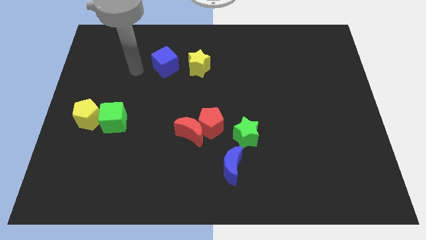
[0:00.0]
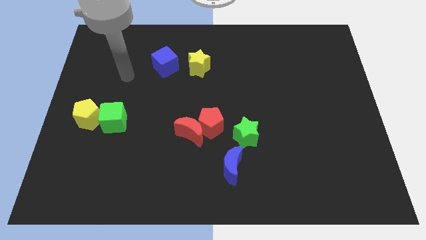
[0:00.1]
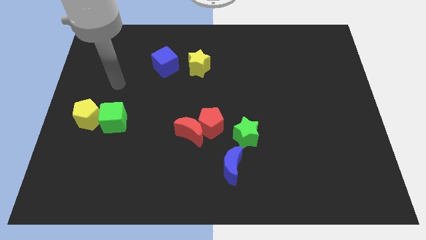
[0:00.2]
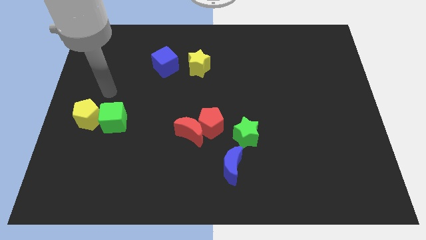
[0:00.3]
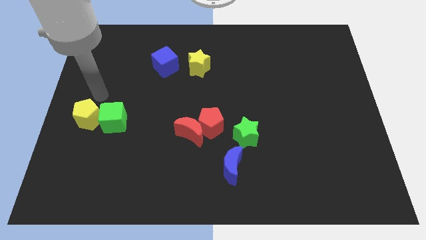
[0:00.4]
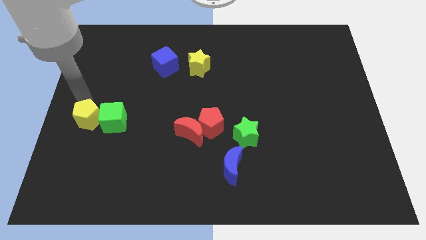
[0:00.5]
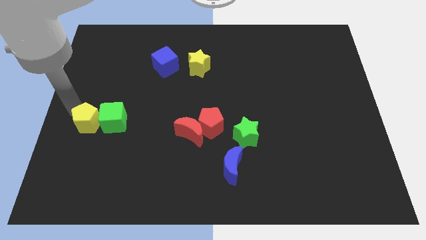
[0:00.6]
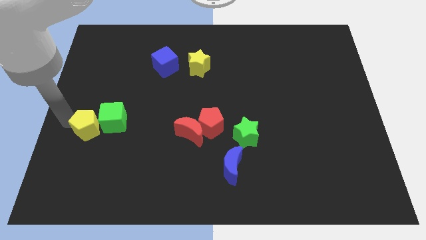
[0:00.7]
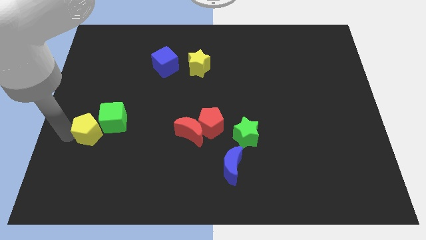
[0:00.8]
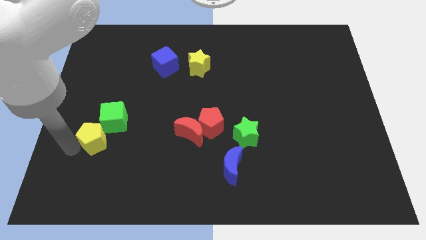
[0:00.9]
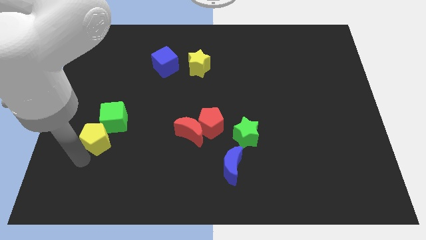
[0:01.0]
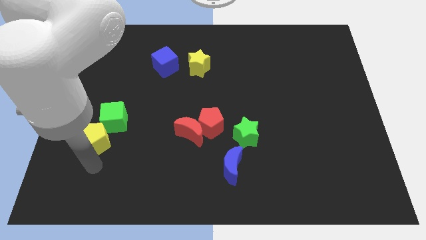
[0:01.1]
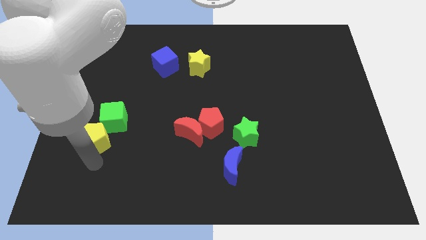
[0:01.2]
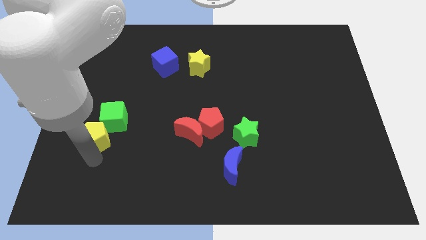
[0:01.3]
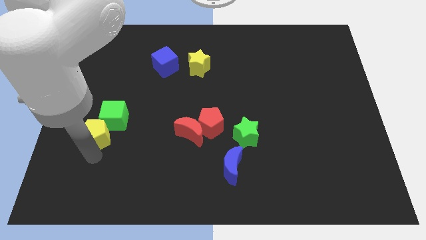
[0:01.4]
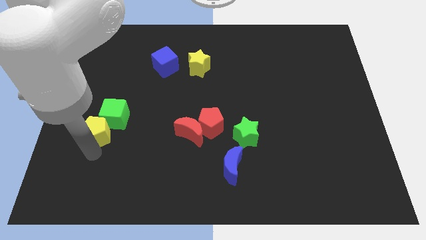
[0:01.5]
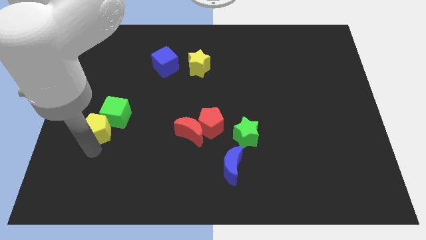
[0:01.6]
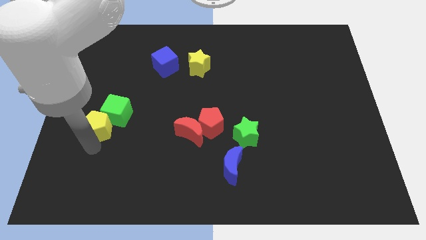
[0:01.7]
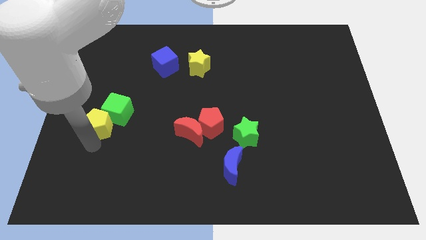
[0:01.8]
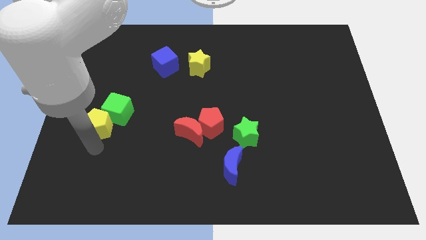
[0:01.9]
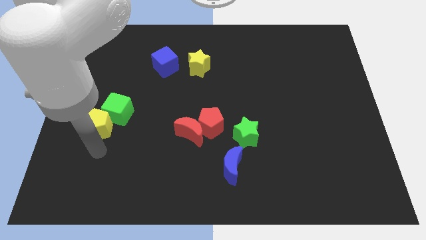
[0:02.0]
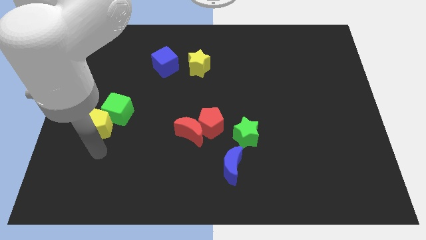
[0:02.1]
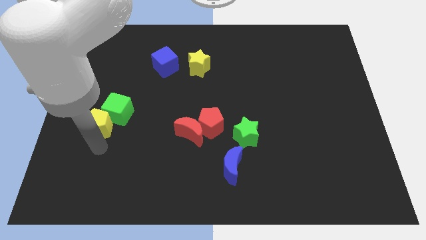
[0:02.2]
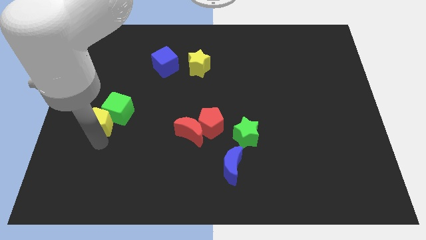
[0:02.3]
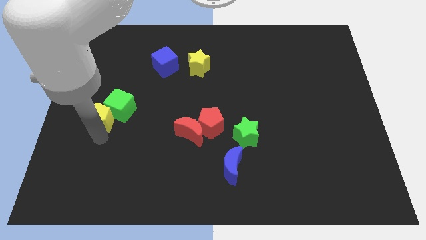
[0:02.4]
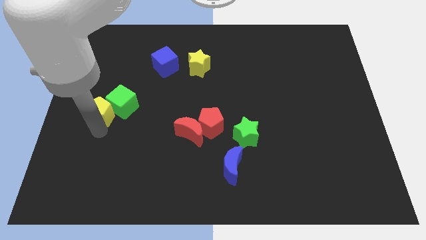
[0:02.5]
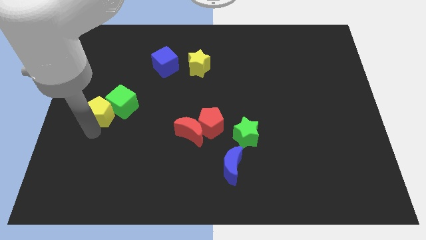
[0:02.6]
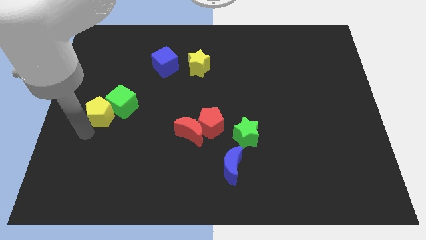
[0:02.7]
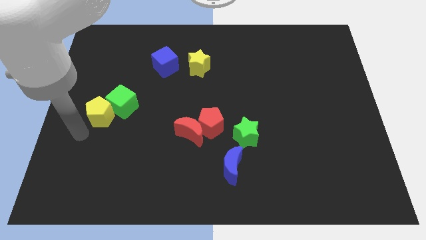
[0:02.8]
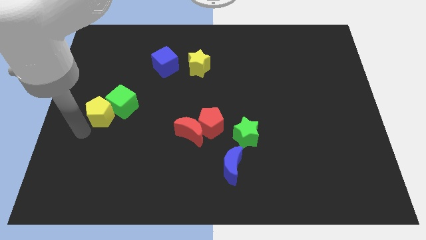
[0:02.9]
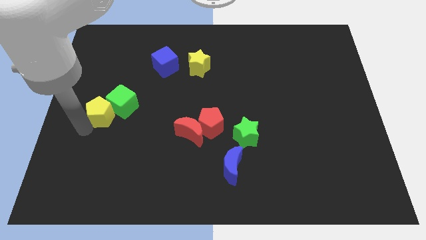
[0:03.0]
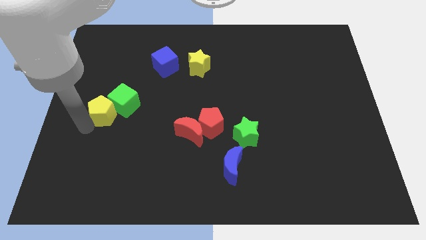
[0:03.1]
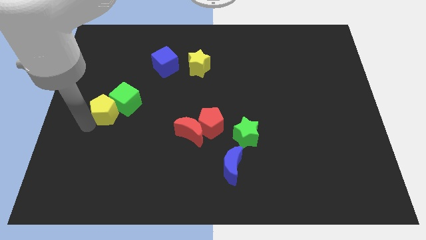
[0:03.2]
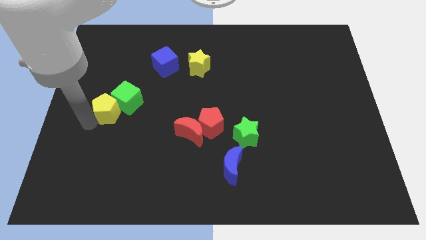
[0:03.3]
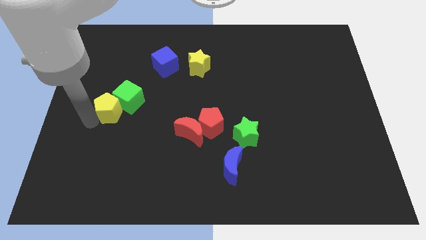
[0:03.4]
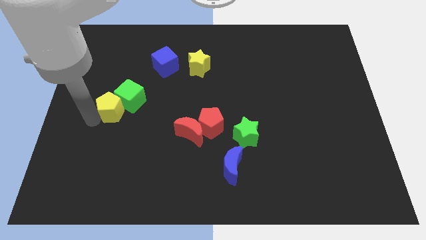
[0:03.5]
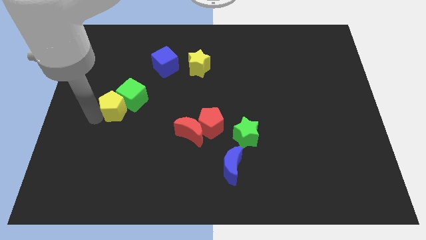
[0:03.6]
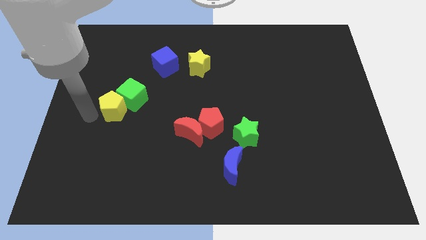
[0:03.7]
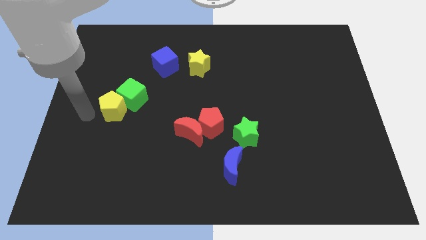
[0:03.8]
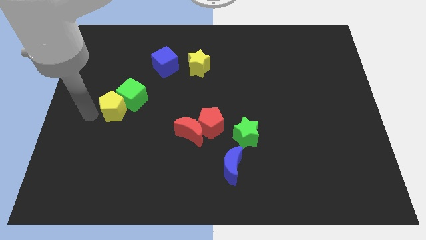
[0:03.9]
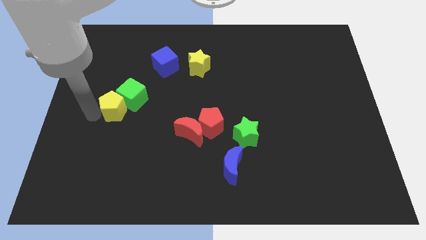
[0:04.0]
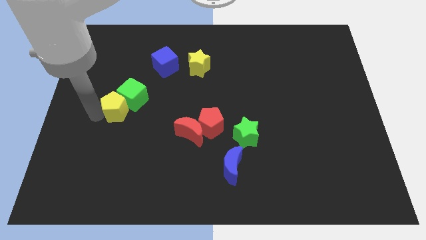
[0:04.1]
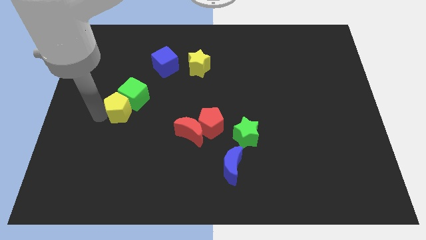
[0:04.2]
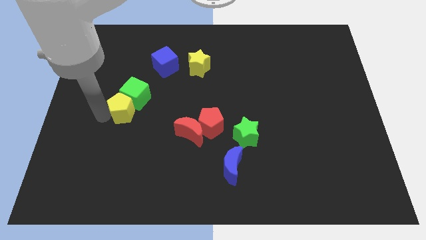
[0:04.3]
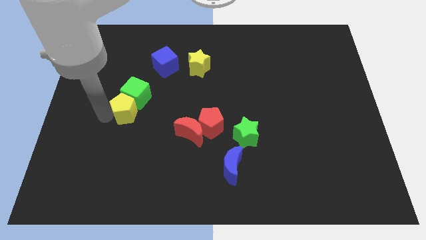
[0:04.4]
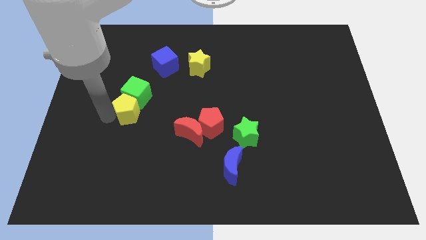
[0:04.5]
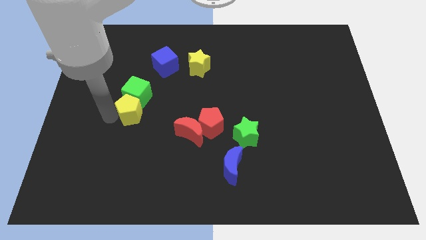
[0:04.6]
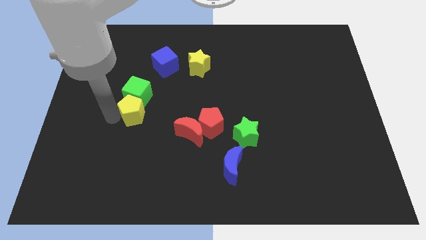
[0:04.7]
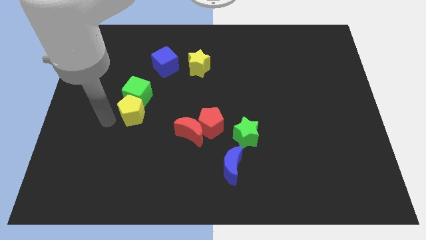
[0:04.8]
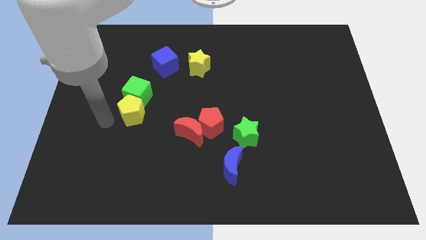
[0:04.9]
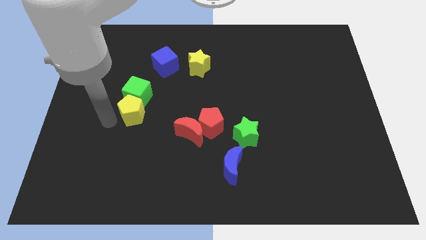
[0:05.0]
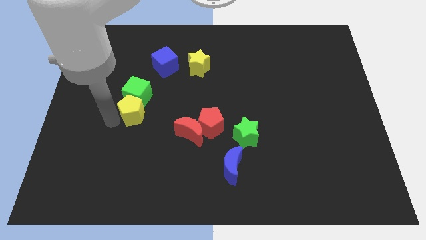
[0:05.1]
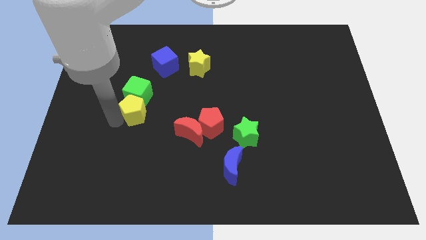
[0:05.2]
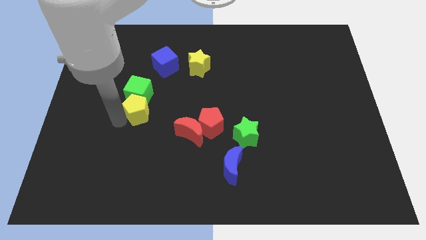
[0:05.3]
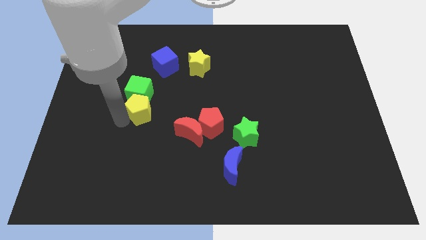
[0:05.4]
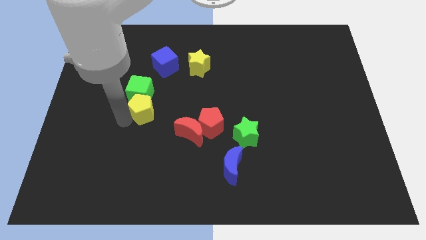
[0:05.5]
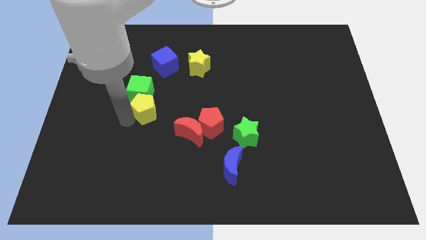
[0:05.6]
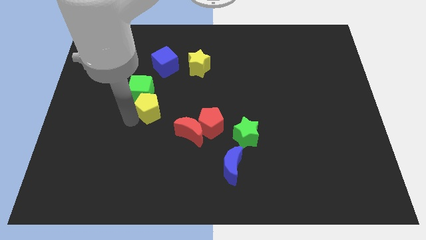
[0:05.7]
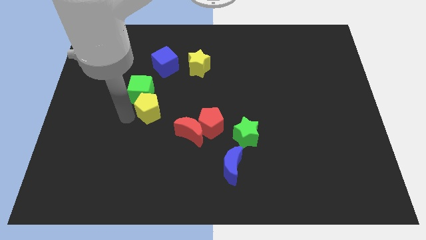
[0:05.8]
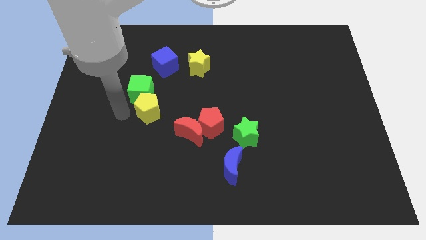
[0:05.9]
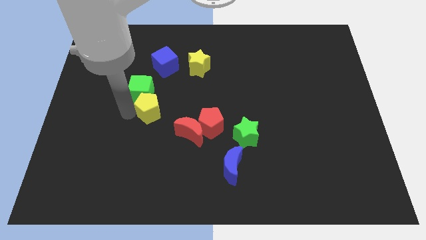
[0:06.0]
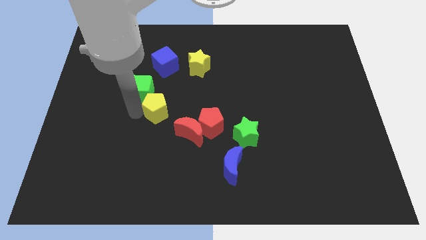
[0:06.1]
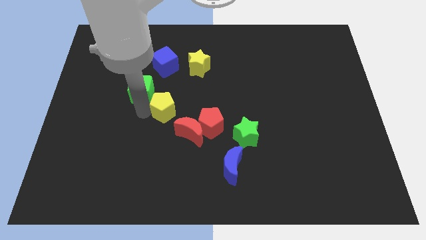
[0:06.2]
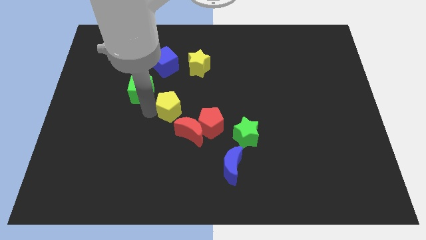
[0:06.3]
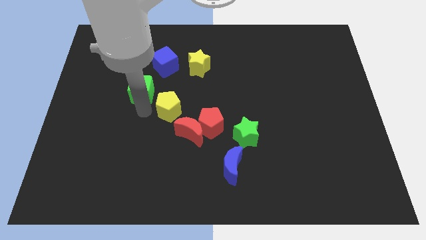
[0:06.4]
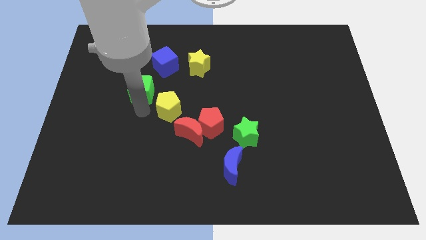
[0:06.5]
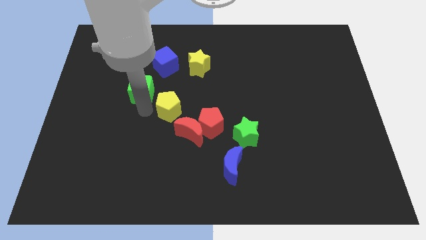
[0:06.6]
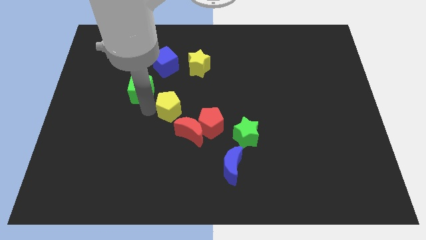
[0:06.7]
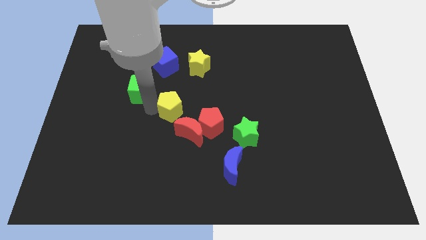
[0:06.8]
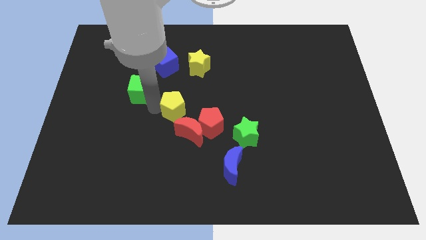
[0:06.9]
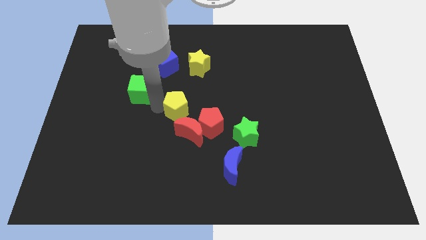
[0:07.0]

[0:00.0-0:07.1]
push the yellow pentagon to the right

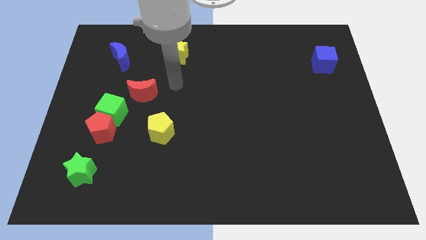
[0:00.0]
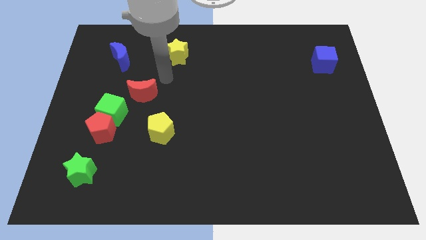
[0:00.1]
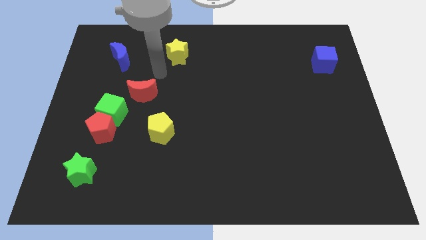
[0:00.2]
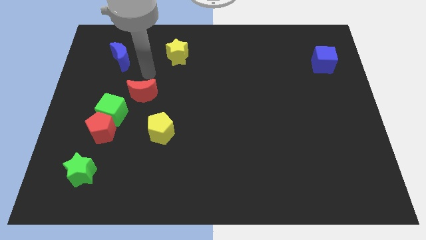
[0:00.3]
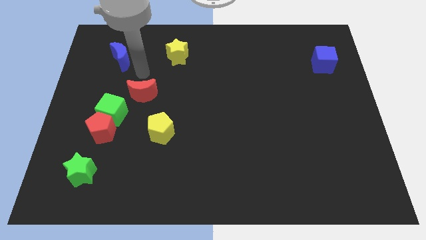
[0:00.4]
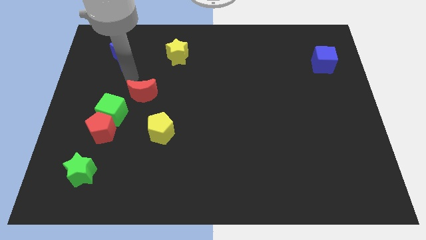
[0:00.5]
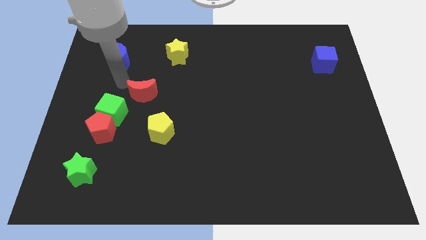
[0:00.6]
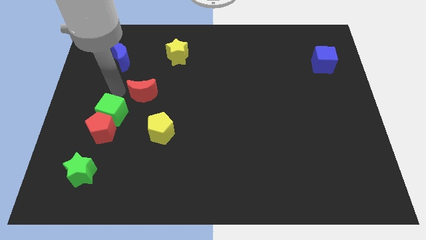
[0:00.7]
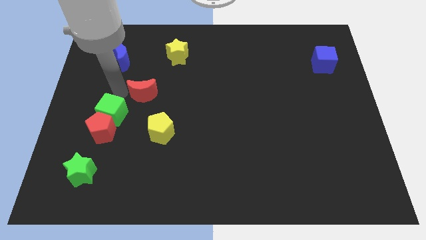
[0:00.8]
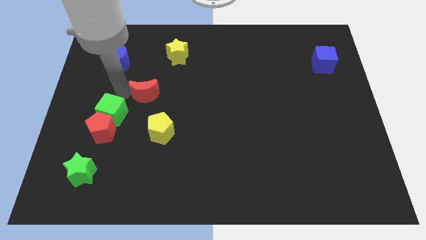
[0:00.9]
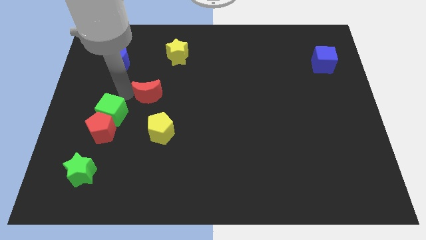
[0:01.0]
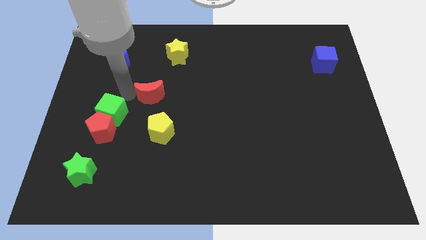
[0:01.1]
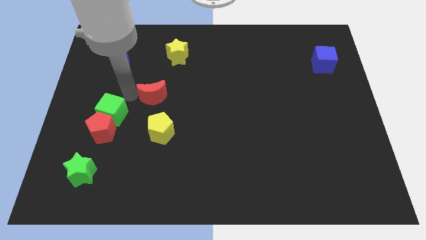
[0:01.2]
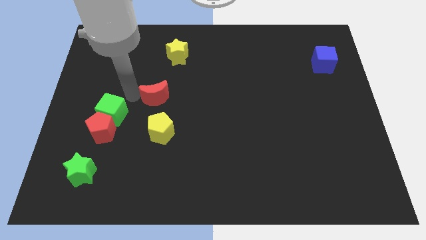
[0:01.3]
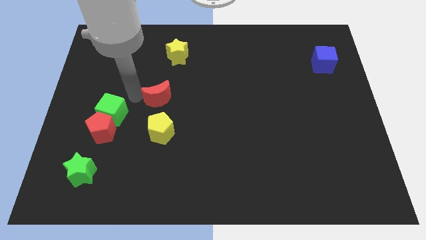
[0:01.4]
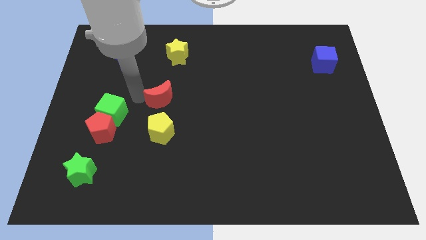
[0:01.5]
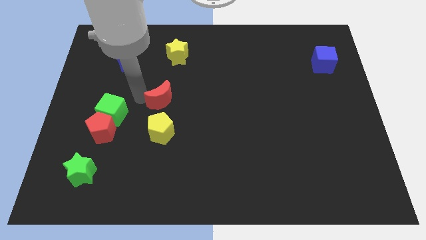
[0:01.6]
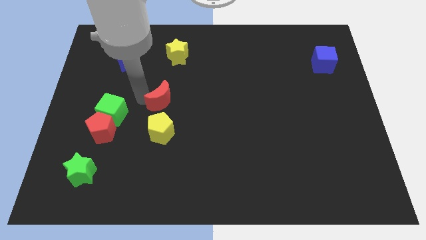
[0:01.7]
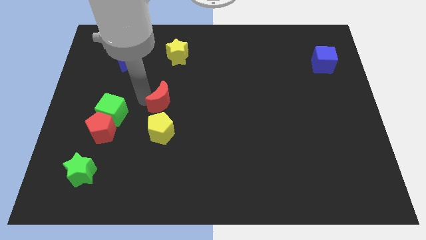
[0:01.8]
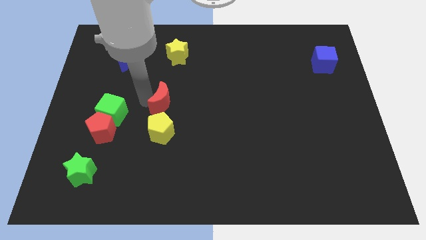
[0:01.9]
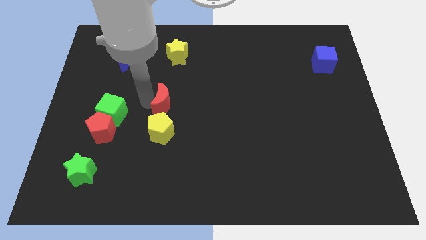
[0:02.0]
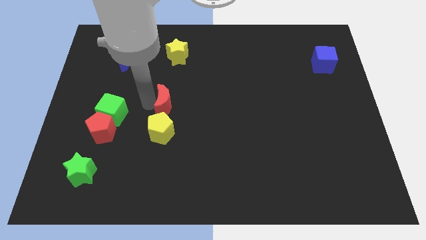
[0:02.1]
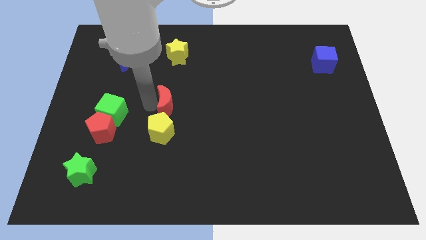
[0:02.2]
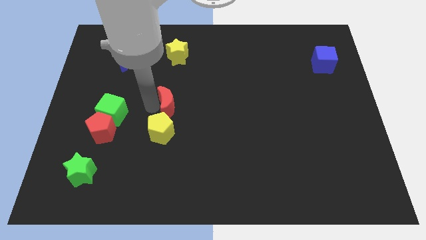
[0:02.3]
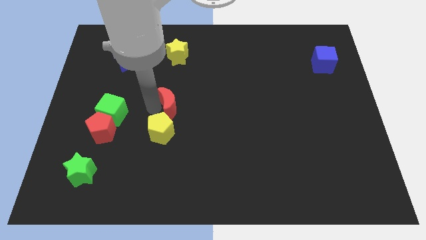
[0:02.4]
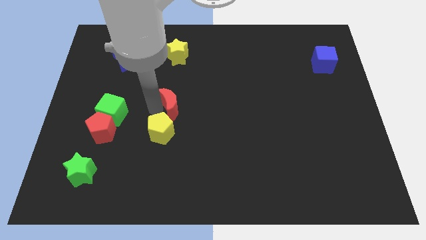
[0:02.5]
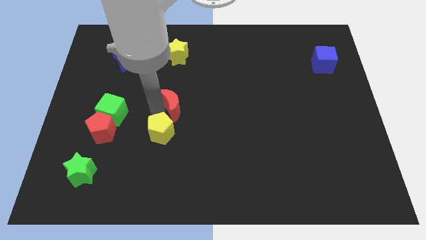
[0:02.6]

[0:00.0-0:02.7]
push the red moon slightly to the right
